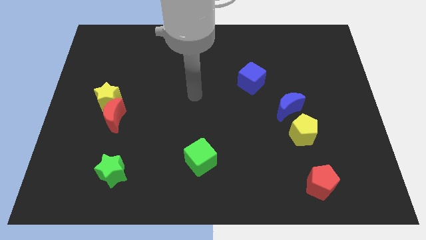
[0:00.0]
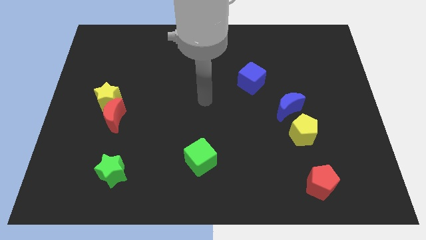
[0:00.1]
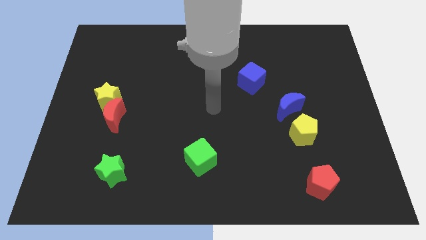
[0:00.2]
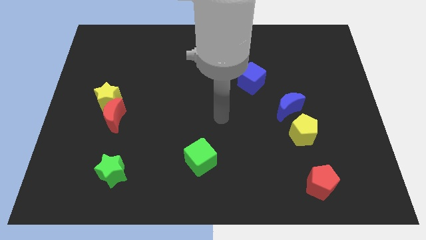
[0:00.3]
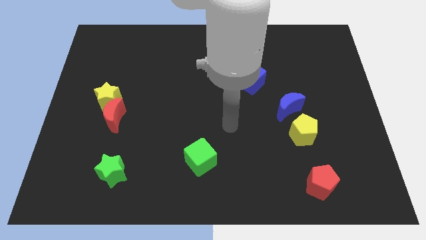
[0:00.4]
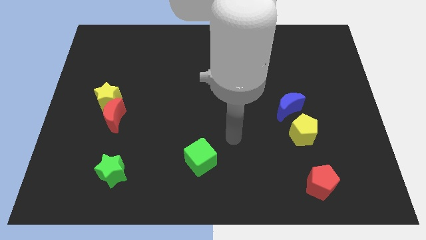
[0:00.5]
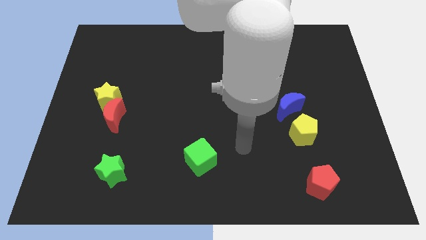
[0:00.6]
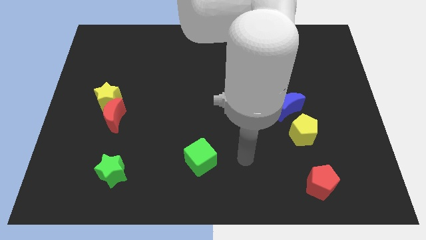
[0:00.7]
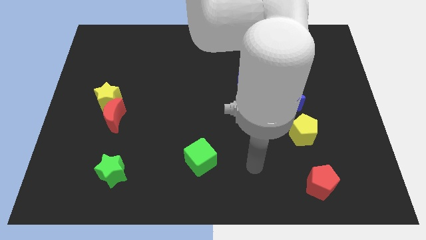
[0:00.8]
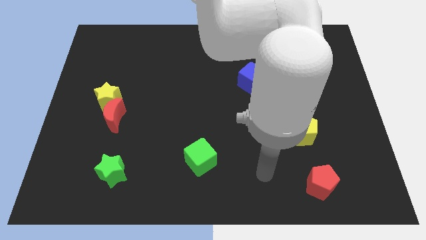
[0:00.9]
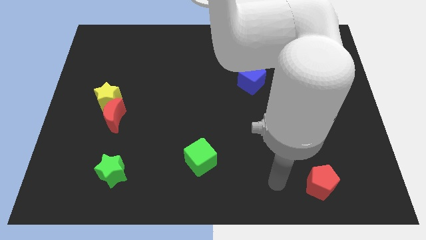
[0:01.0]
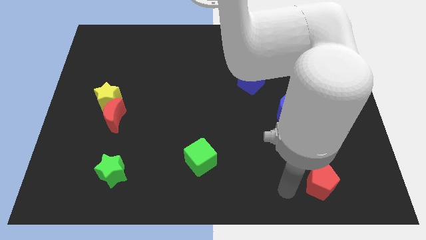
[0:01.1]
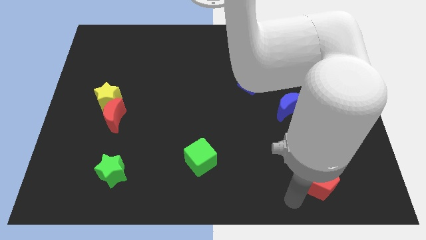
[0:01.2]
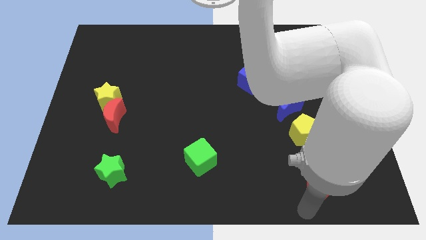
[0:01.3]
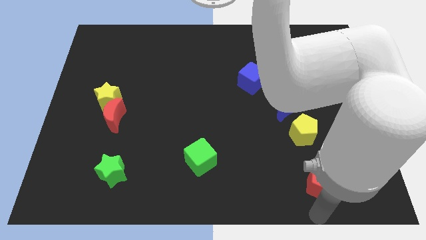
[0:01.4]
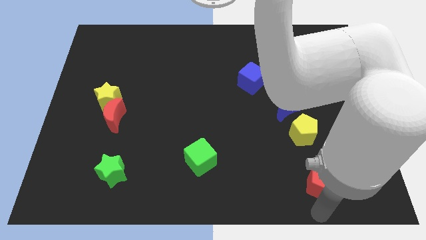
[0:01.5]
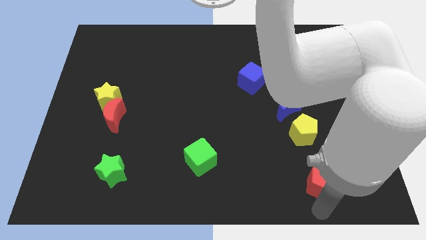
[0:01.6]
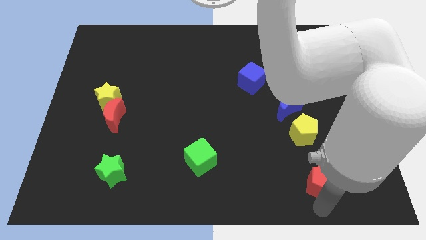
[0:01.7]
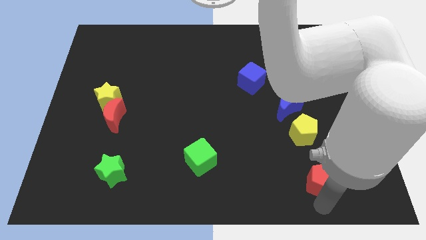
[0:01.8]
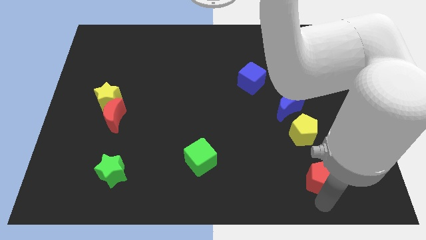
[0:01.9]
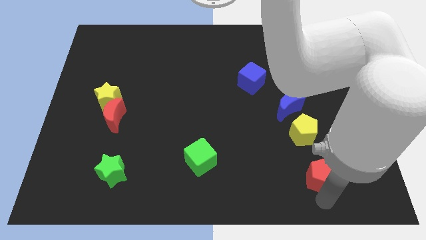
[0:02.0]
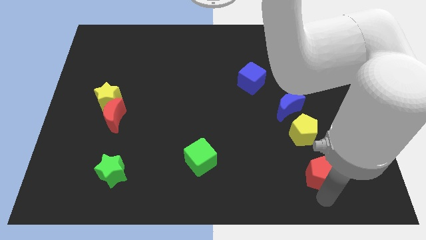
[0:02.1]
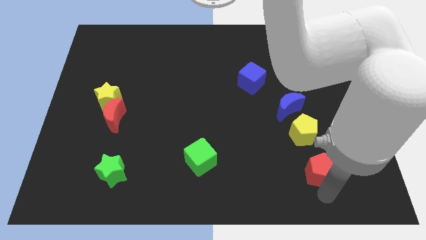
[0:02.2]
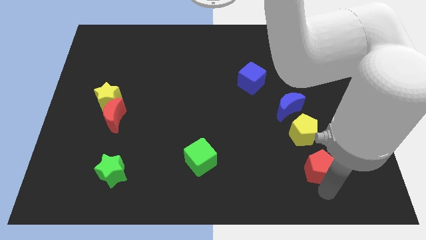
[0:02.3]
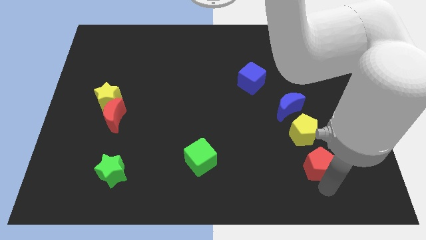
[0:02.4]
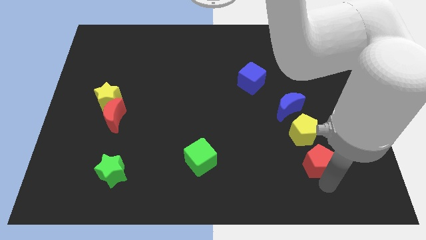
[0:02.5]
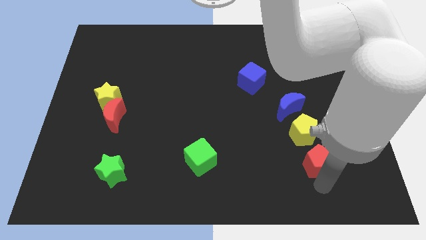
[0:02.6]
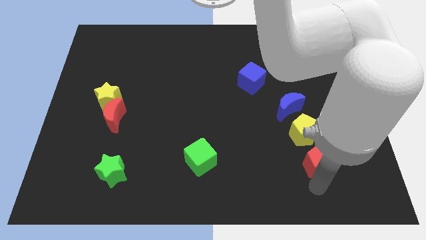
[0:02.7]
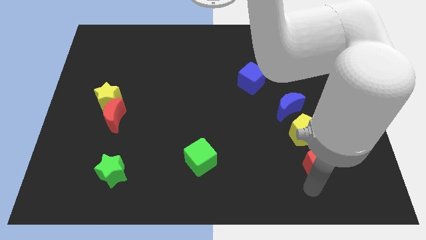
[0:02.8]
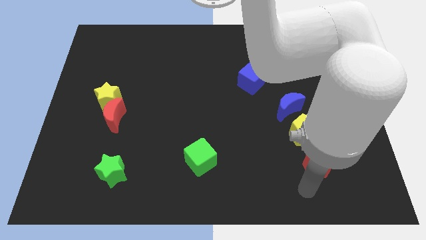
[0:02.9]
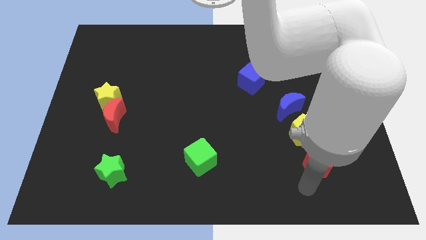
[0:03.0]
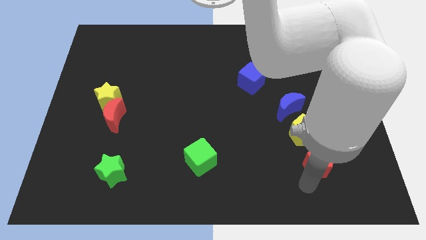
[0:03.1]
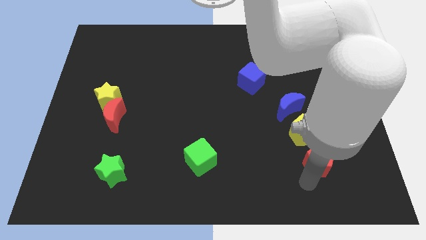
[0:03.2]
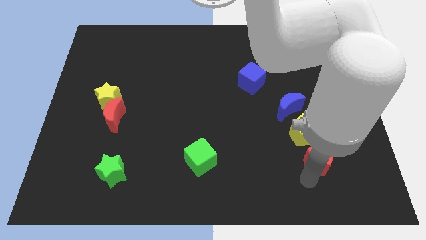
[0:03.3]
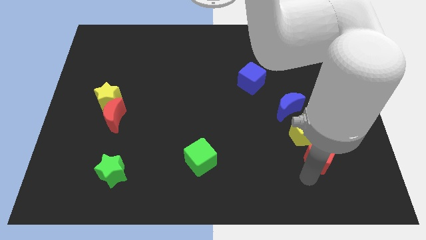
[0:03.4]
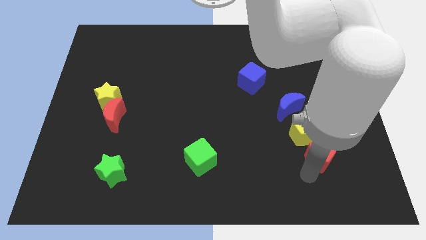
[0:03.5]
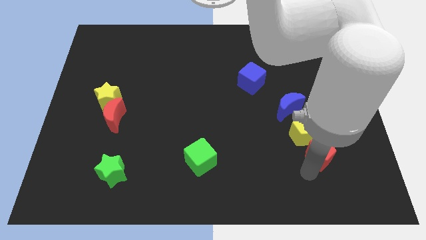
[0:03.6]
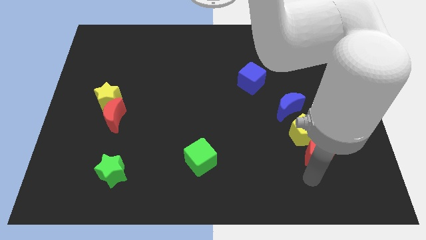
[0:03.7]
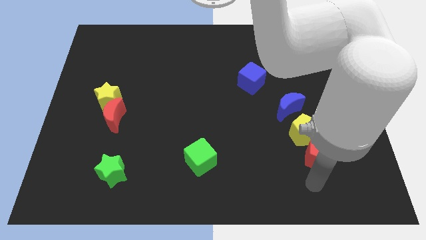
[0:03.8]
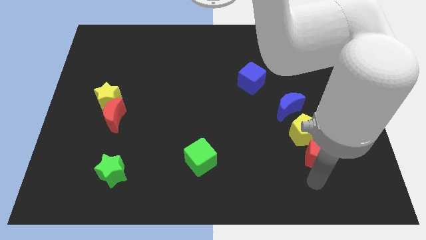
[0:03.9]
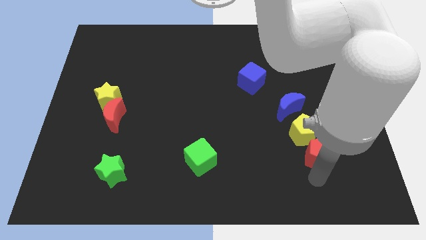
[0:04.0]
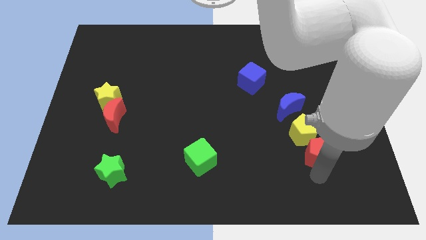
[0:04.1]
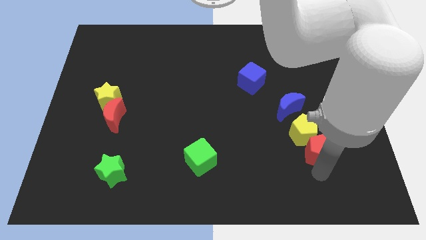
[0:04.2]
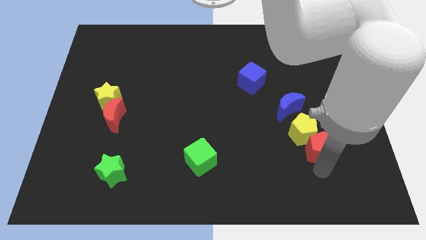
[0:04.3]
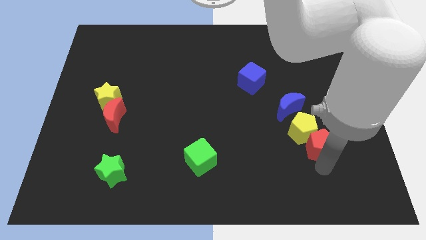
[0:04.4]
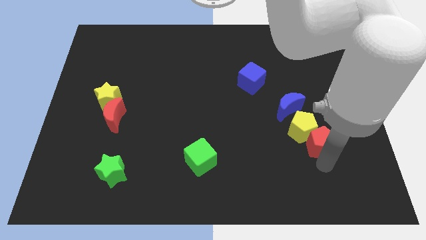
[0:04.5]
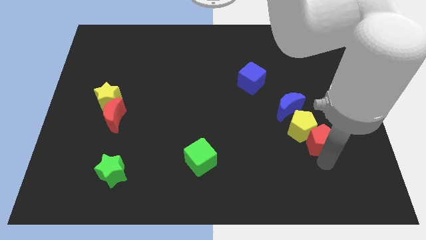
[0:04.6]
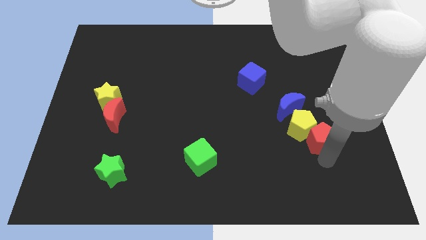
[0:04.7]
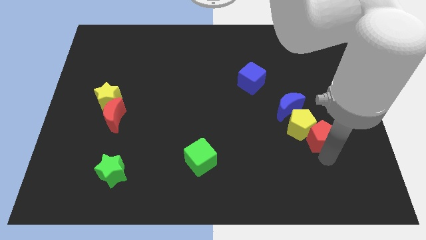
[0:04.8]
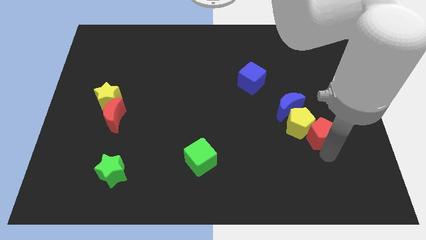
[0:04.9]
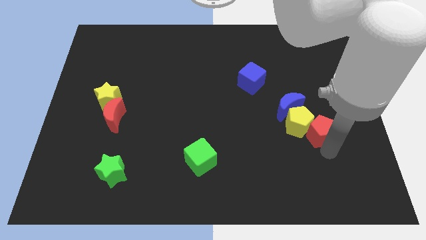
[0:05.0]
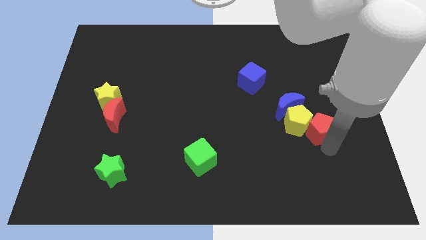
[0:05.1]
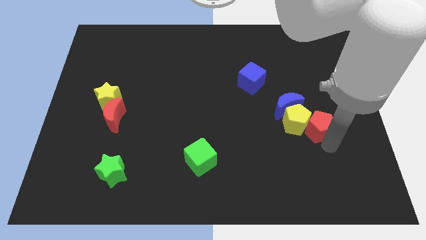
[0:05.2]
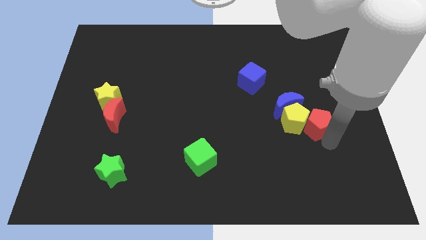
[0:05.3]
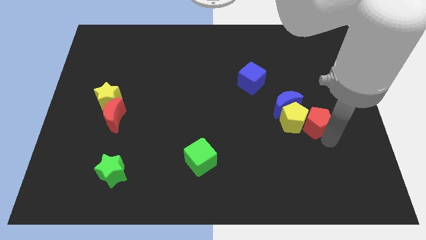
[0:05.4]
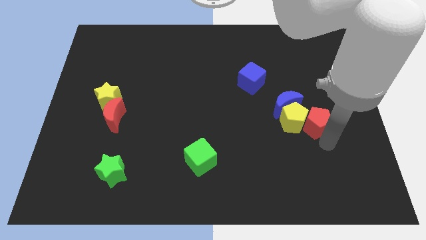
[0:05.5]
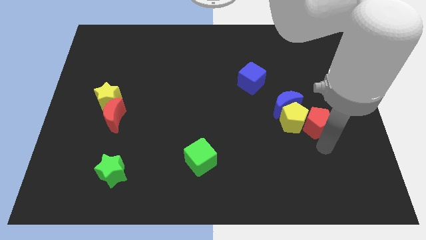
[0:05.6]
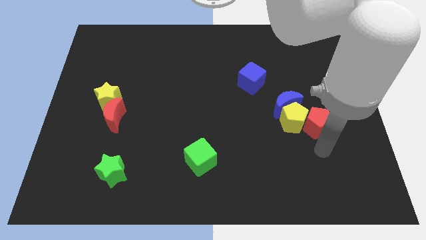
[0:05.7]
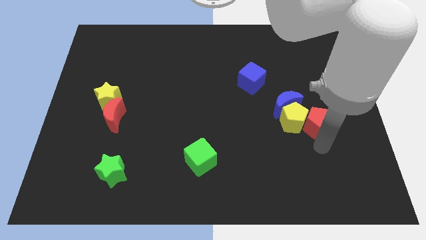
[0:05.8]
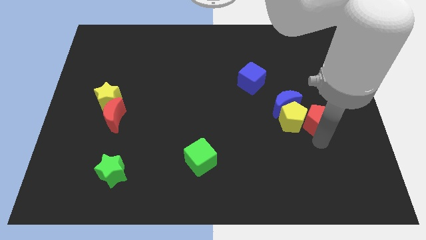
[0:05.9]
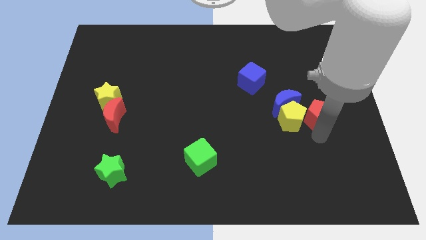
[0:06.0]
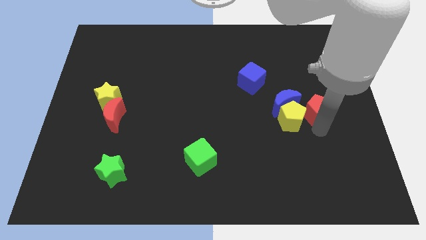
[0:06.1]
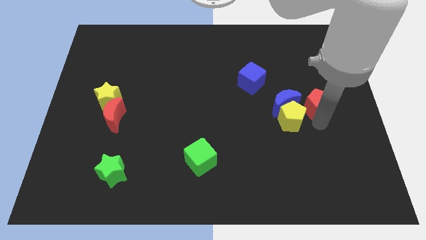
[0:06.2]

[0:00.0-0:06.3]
move the red pentagon upwards

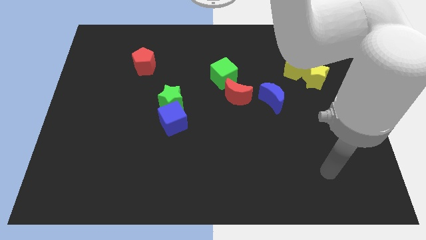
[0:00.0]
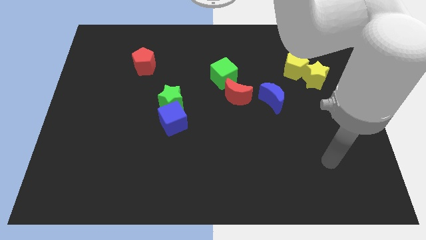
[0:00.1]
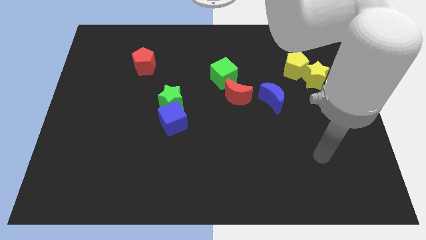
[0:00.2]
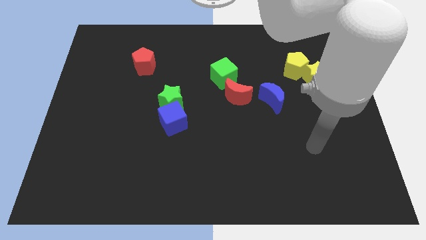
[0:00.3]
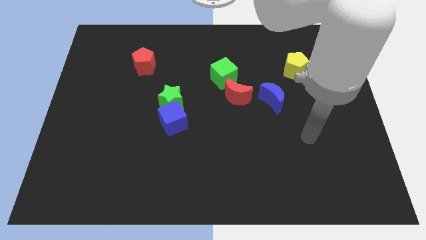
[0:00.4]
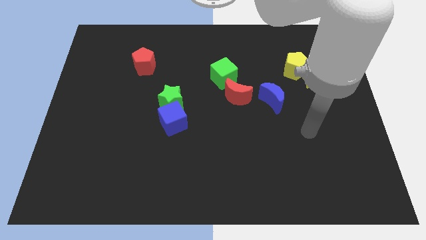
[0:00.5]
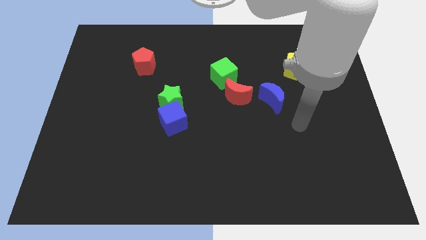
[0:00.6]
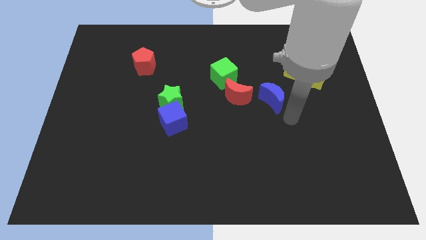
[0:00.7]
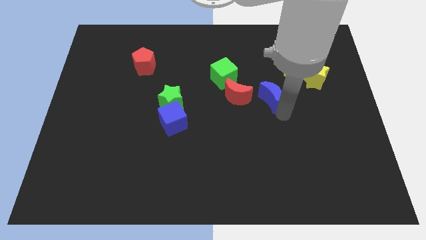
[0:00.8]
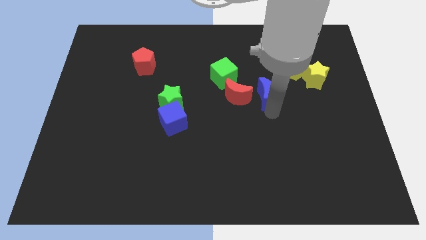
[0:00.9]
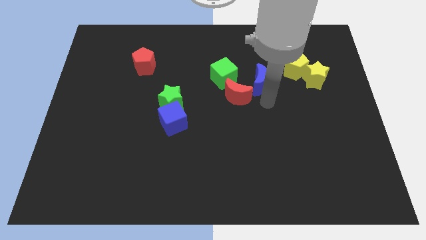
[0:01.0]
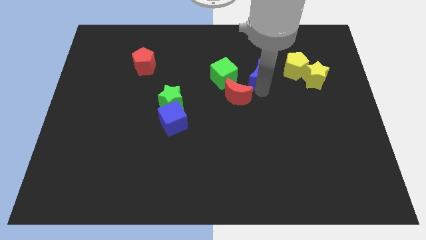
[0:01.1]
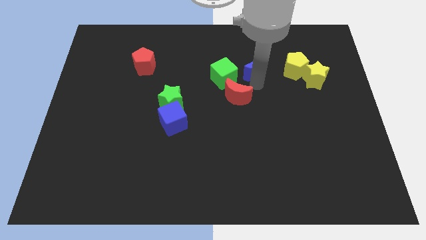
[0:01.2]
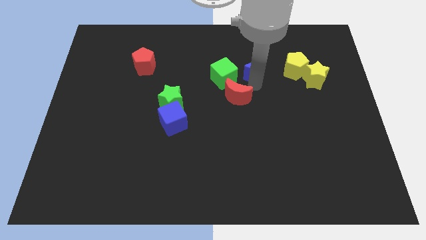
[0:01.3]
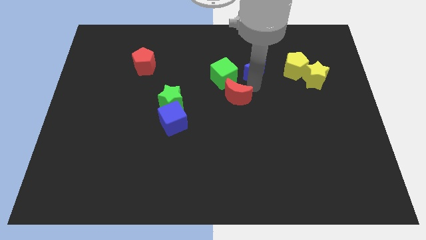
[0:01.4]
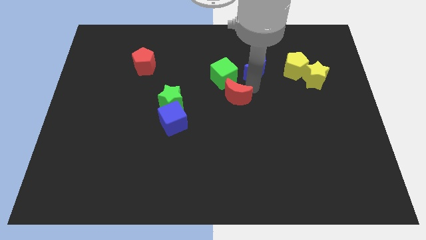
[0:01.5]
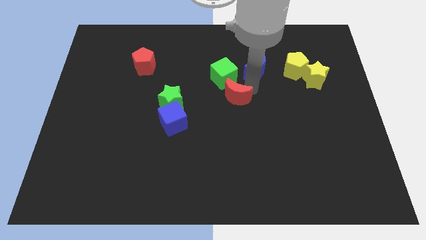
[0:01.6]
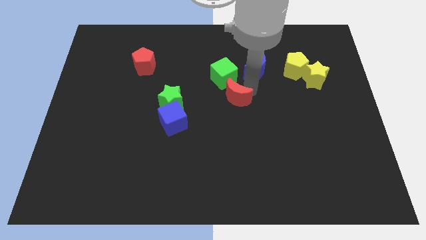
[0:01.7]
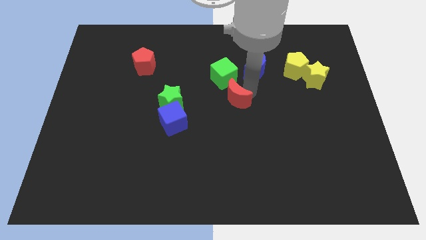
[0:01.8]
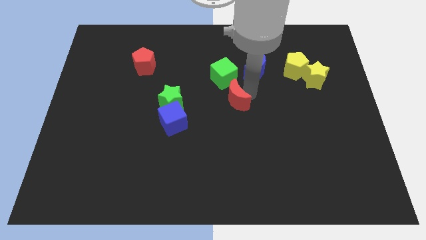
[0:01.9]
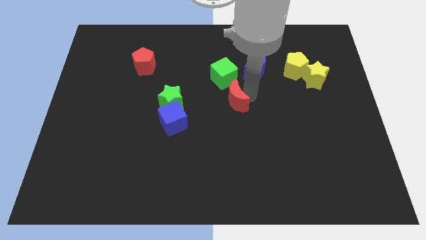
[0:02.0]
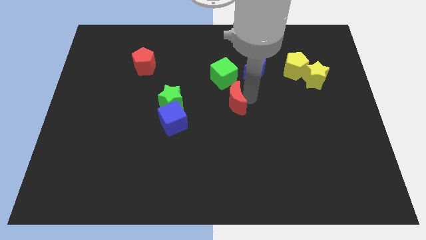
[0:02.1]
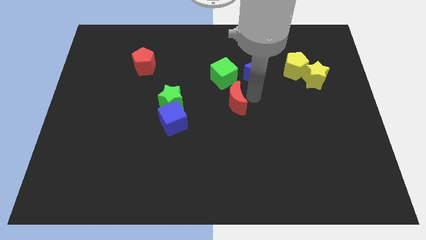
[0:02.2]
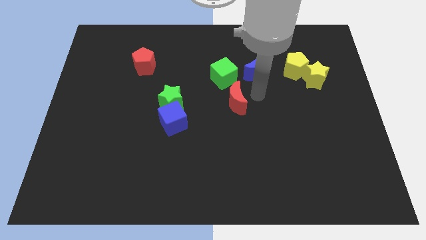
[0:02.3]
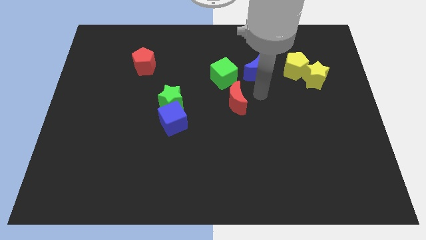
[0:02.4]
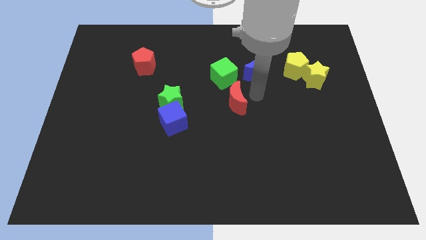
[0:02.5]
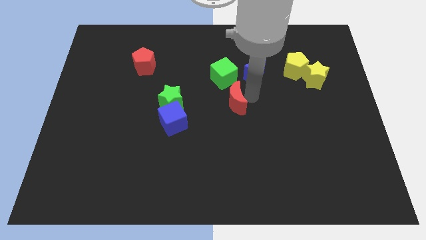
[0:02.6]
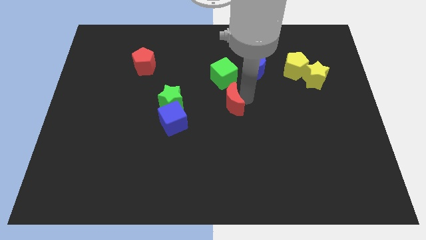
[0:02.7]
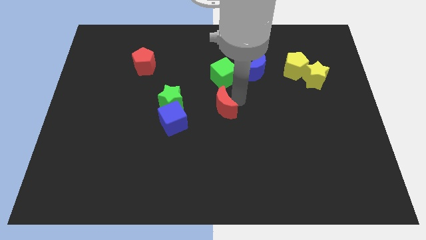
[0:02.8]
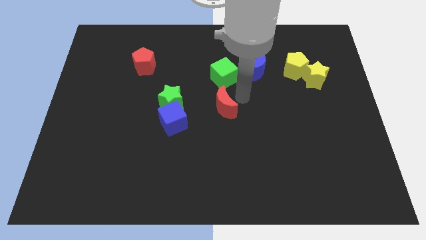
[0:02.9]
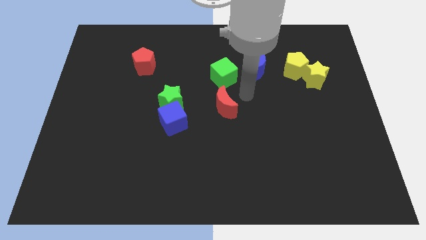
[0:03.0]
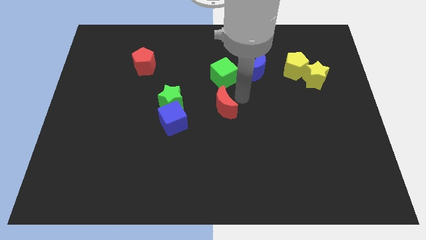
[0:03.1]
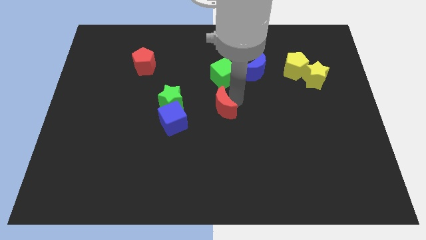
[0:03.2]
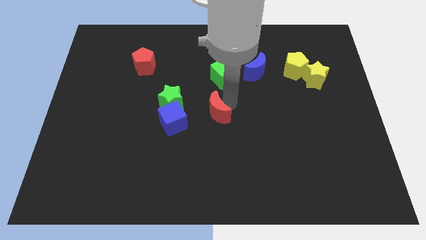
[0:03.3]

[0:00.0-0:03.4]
move the red moon a little bit down and left diagonally
